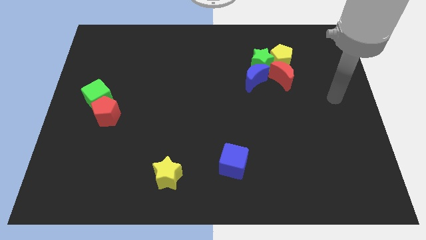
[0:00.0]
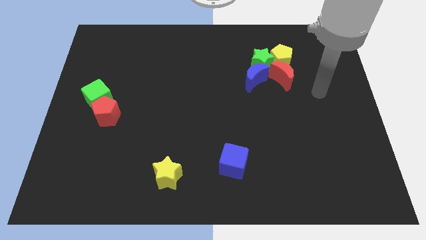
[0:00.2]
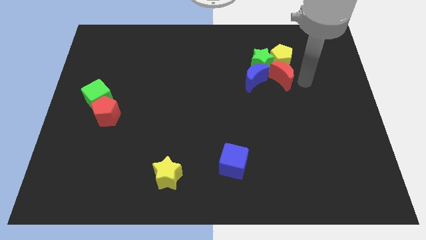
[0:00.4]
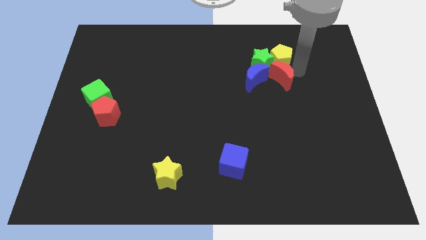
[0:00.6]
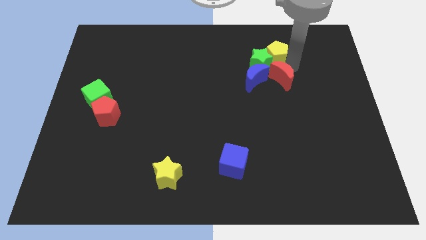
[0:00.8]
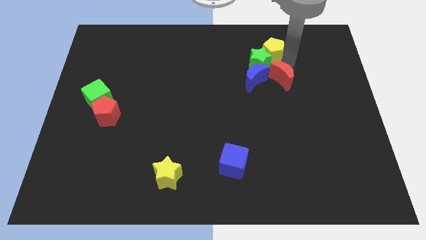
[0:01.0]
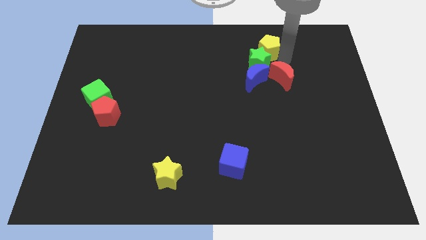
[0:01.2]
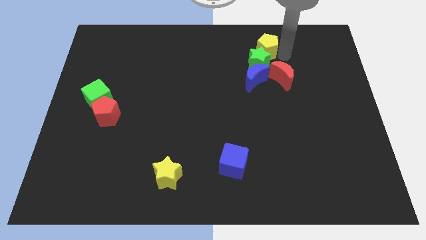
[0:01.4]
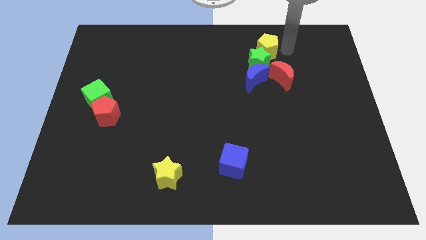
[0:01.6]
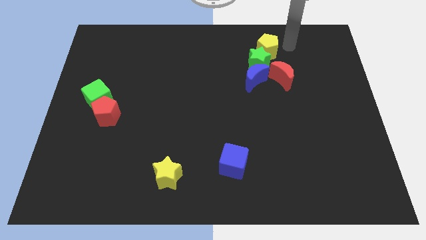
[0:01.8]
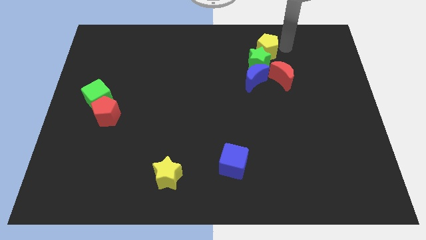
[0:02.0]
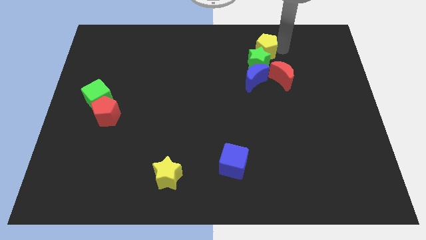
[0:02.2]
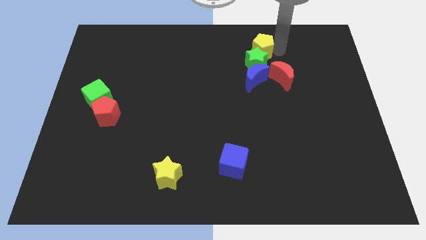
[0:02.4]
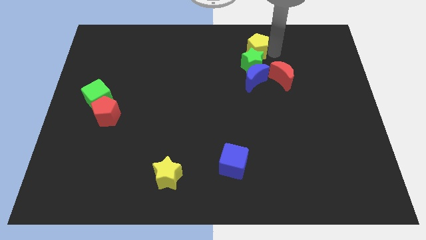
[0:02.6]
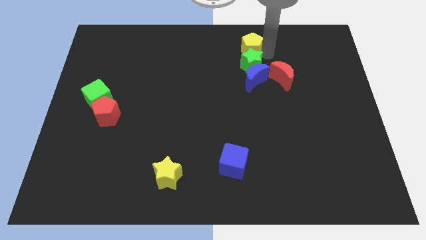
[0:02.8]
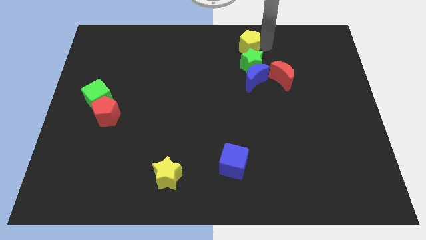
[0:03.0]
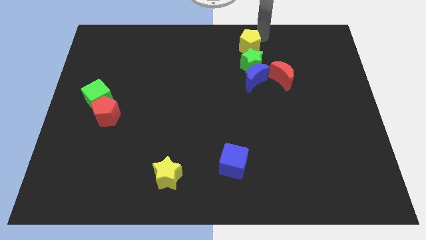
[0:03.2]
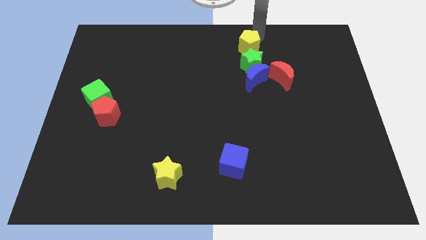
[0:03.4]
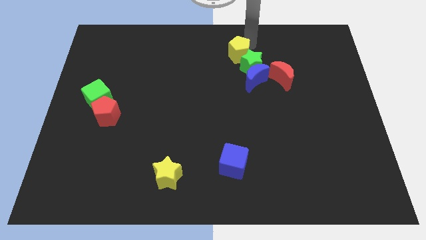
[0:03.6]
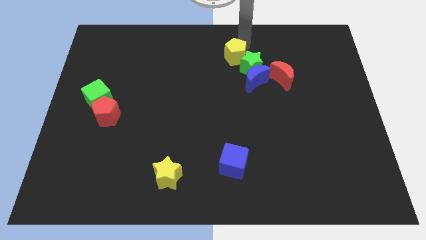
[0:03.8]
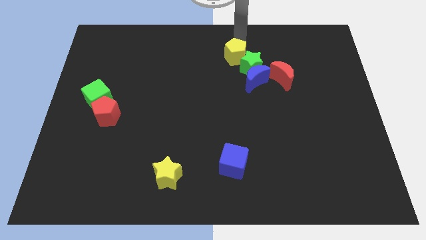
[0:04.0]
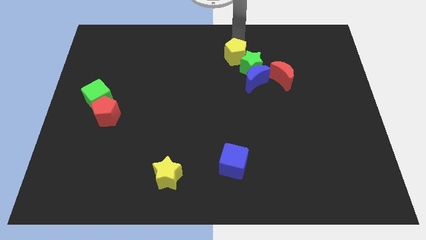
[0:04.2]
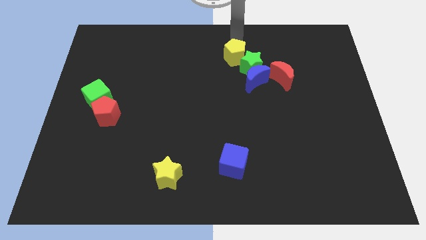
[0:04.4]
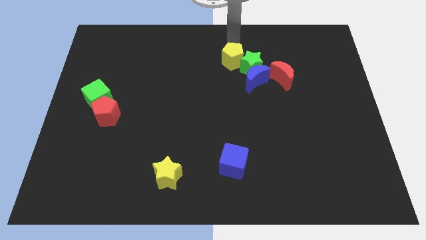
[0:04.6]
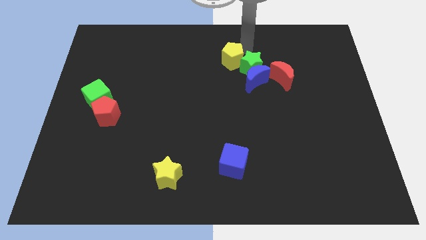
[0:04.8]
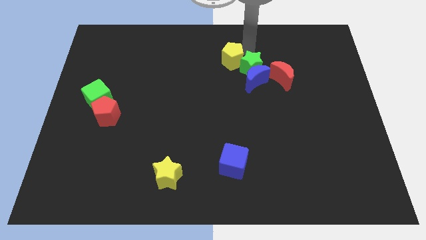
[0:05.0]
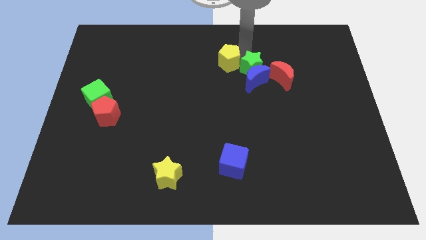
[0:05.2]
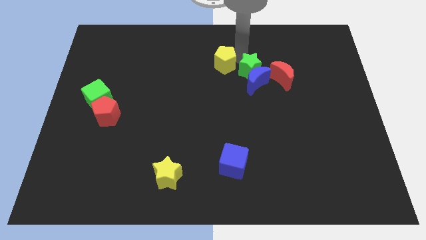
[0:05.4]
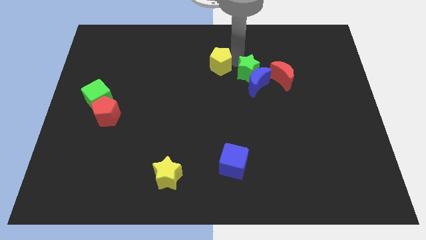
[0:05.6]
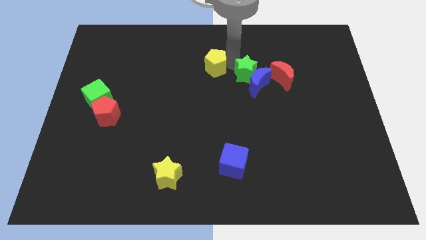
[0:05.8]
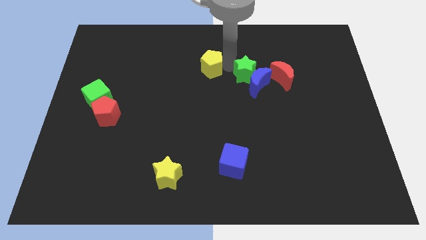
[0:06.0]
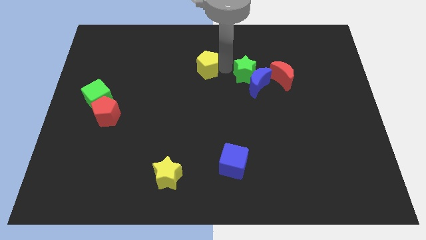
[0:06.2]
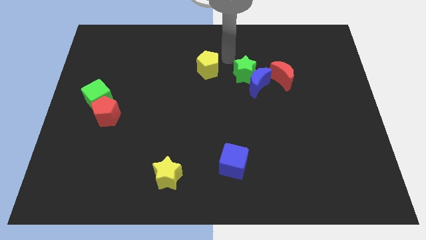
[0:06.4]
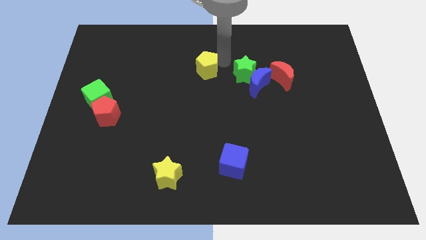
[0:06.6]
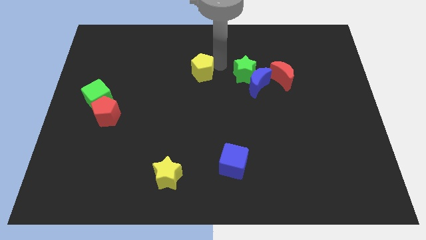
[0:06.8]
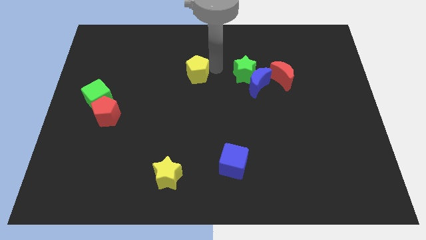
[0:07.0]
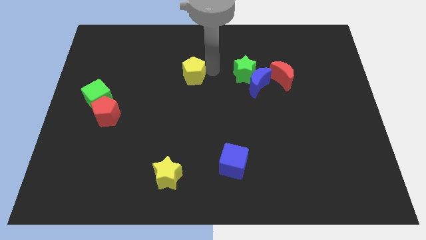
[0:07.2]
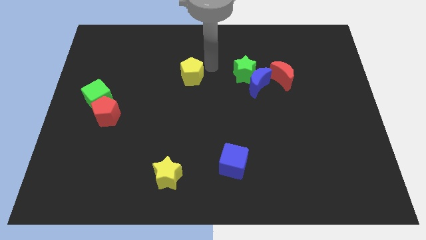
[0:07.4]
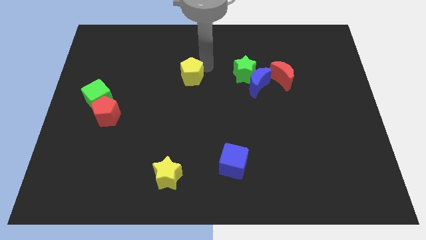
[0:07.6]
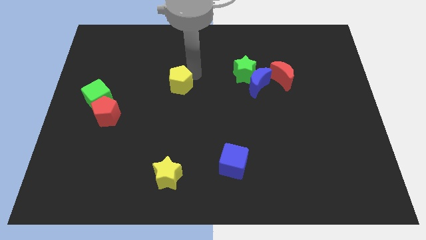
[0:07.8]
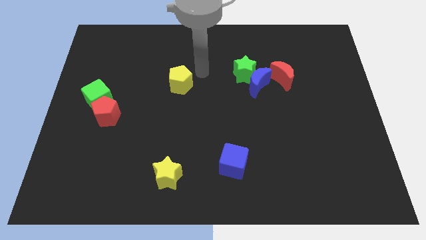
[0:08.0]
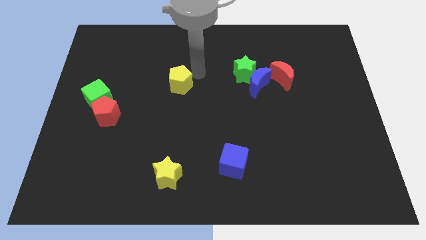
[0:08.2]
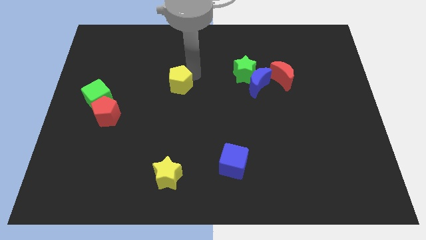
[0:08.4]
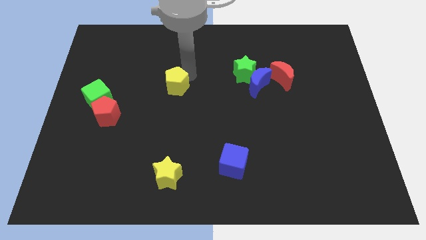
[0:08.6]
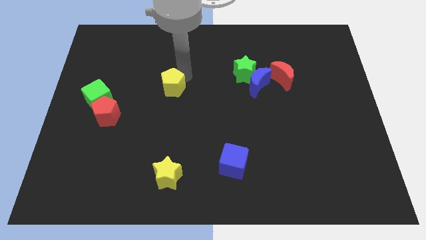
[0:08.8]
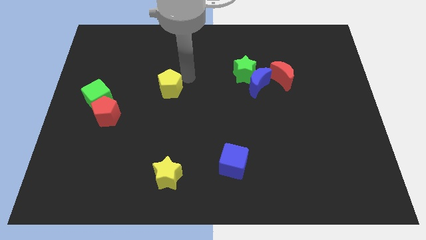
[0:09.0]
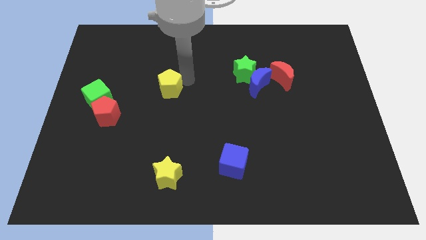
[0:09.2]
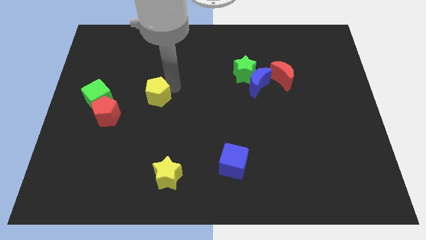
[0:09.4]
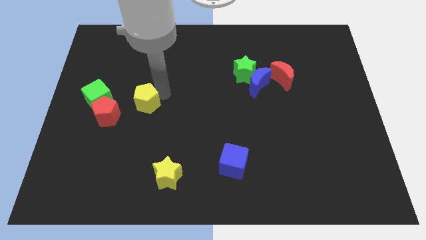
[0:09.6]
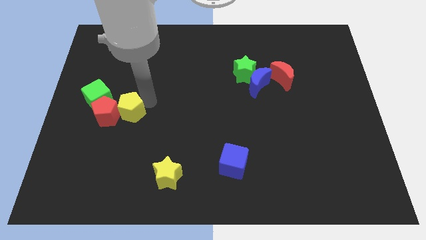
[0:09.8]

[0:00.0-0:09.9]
move the yellow pentagon towards the red pentagon

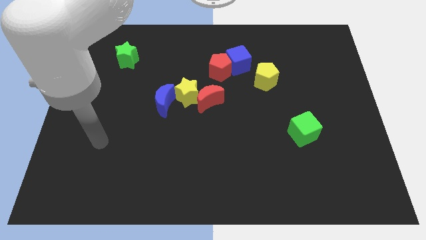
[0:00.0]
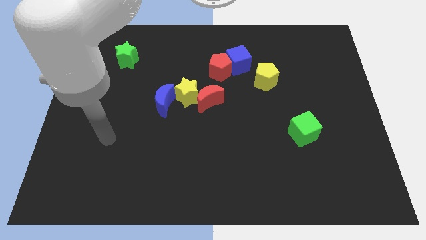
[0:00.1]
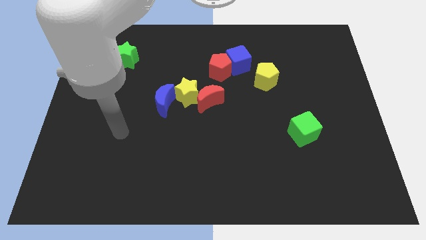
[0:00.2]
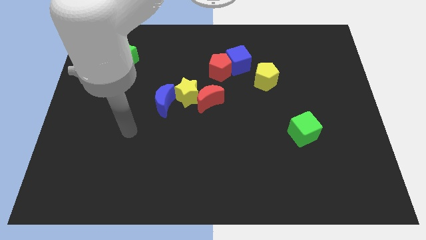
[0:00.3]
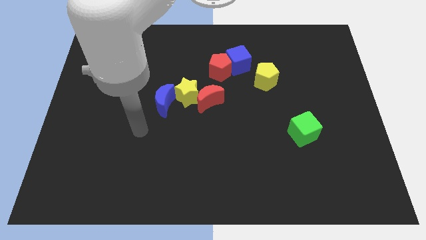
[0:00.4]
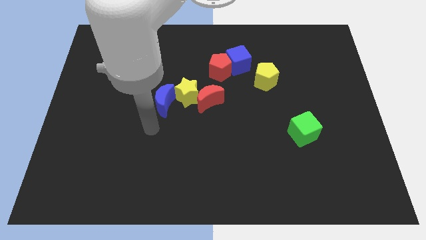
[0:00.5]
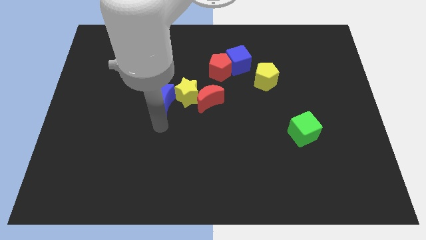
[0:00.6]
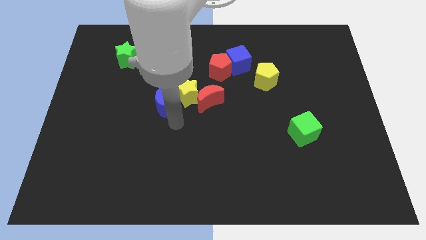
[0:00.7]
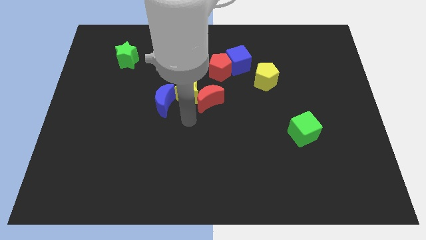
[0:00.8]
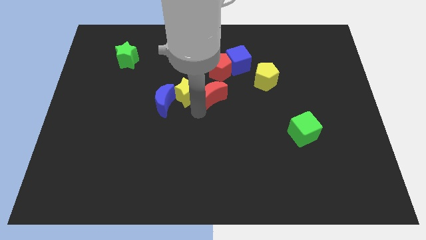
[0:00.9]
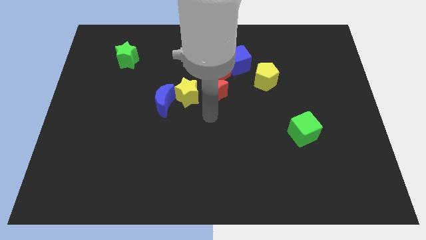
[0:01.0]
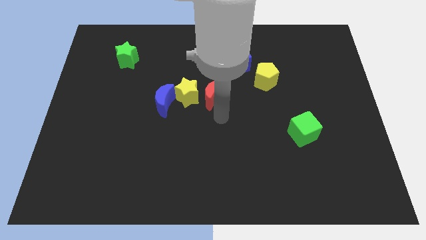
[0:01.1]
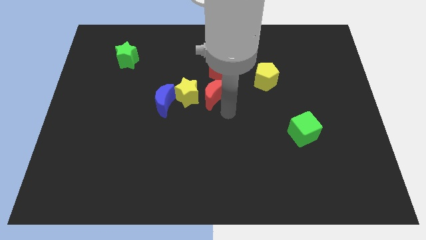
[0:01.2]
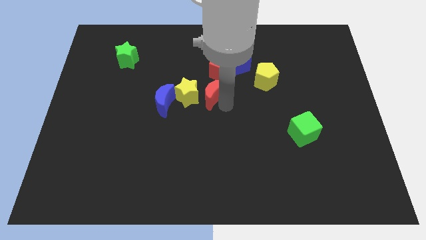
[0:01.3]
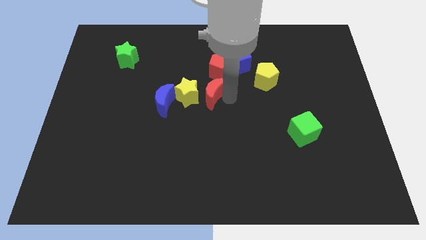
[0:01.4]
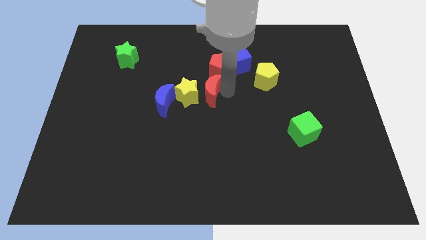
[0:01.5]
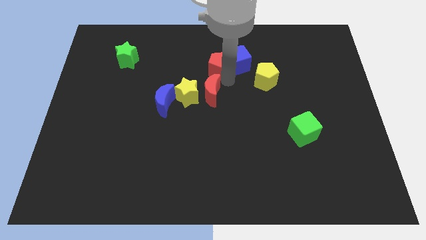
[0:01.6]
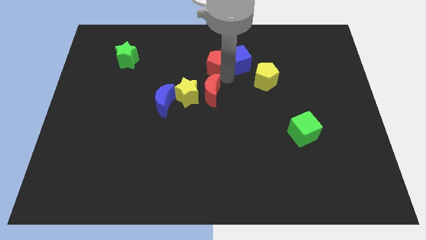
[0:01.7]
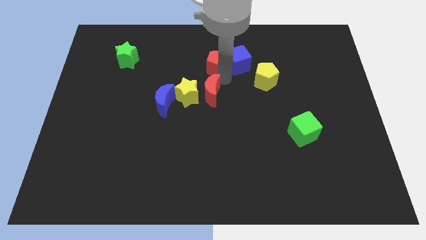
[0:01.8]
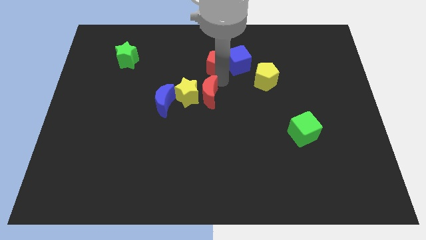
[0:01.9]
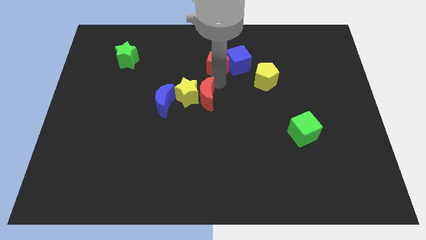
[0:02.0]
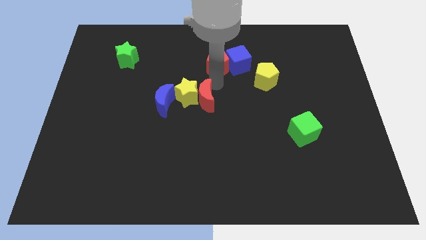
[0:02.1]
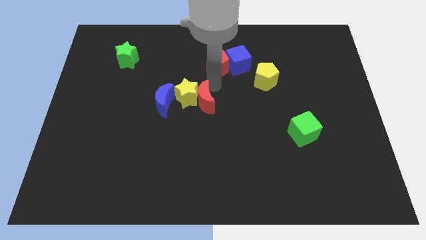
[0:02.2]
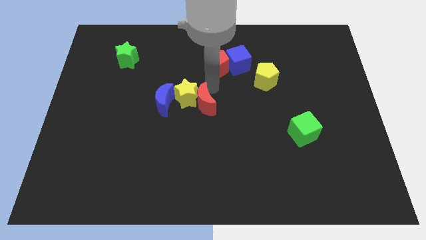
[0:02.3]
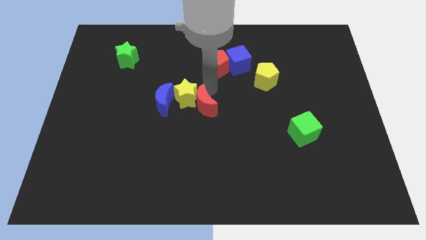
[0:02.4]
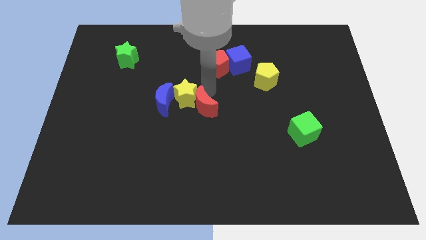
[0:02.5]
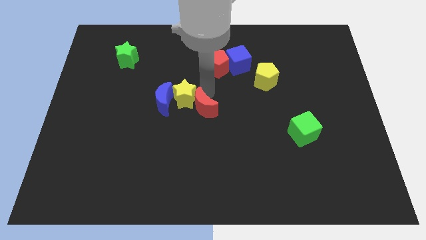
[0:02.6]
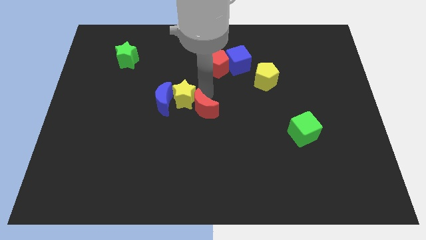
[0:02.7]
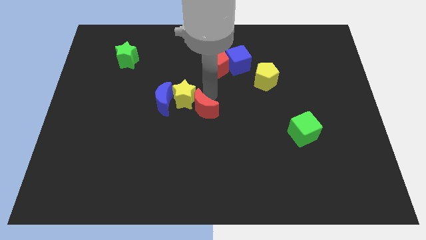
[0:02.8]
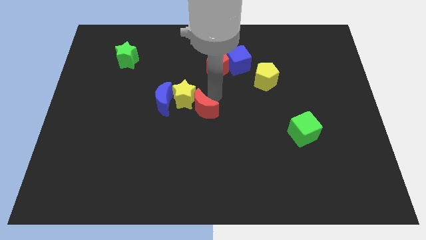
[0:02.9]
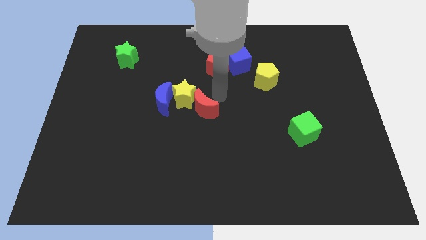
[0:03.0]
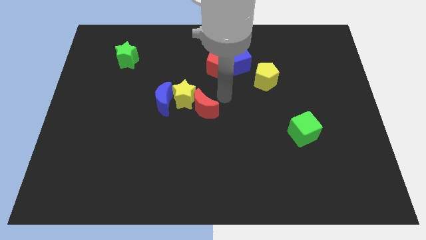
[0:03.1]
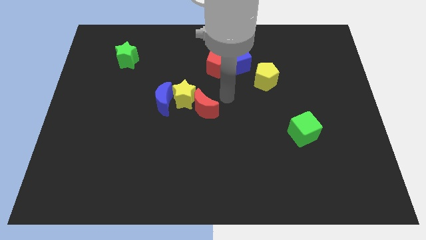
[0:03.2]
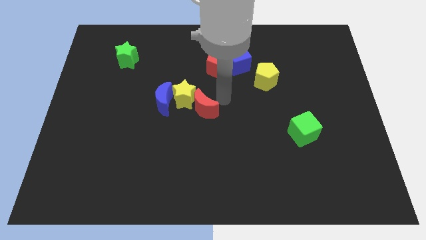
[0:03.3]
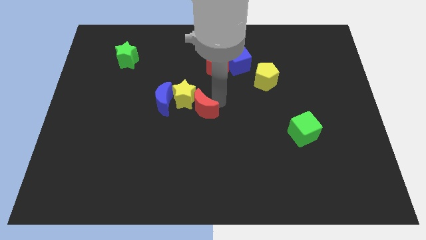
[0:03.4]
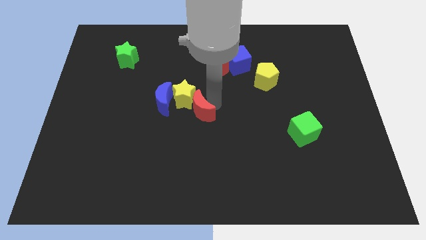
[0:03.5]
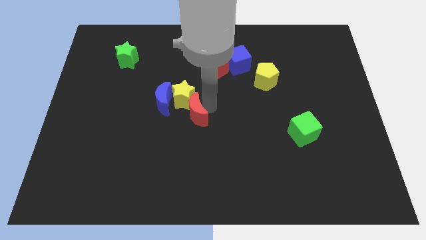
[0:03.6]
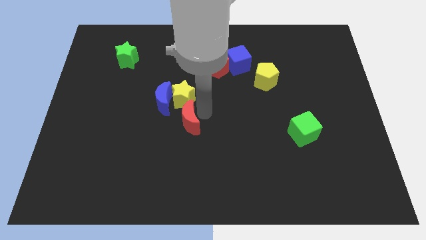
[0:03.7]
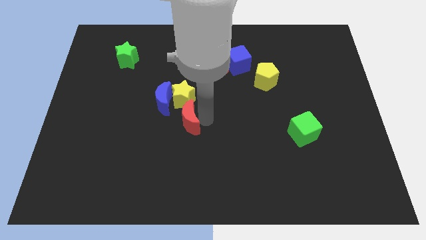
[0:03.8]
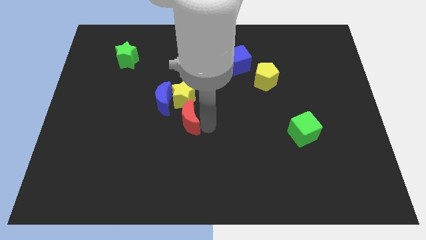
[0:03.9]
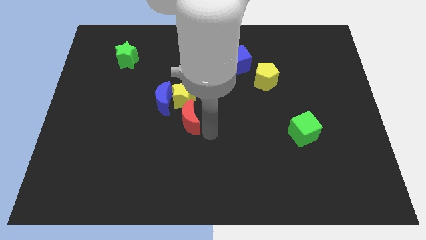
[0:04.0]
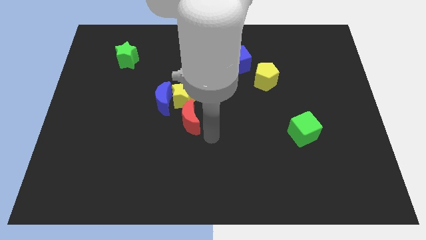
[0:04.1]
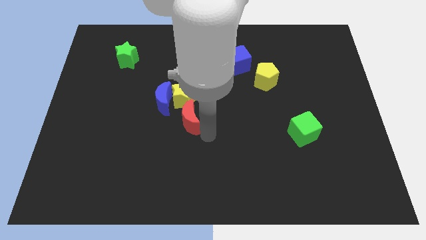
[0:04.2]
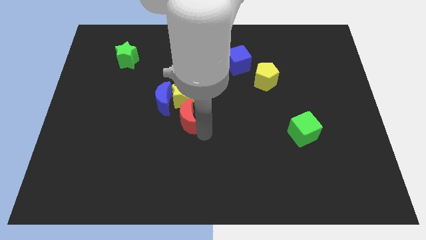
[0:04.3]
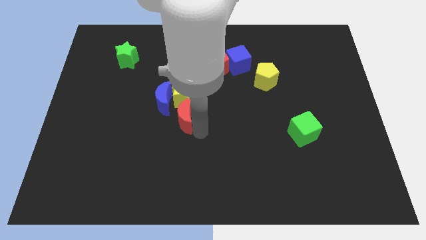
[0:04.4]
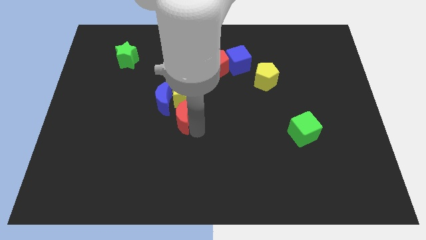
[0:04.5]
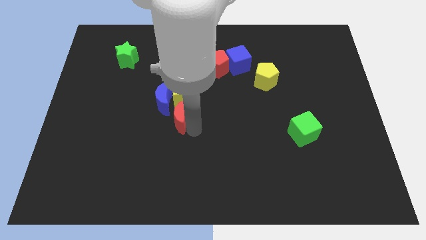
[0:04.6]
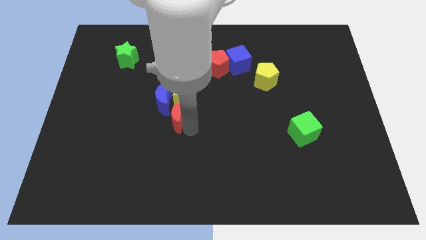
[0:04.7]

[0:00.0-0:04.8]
slide the red moon close to the blue moon
